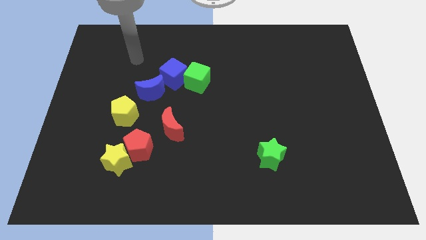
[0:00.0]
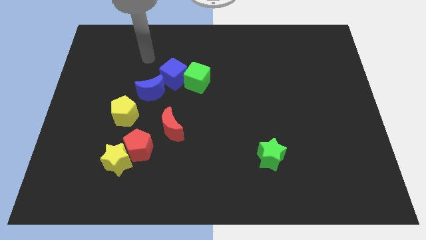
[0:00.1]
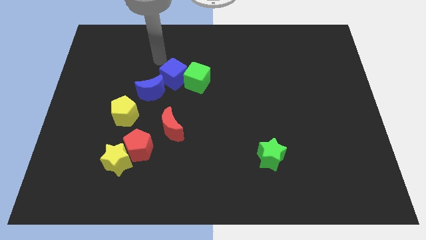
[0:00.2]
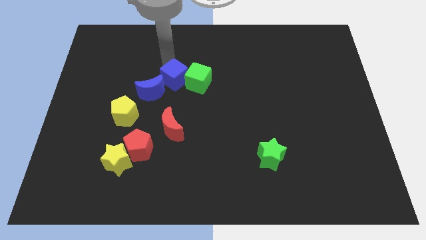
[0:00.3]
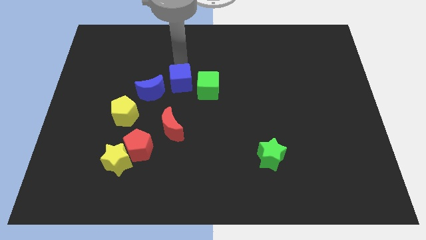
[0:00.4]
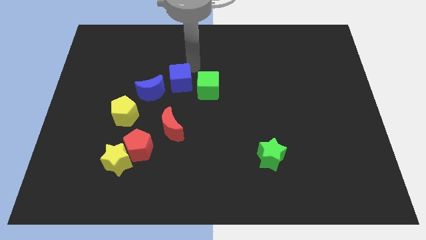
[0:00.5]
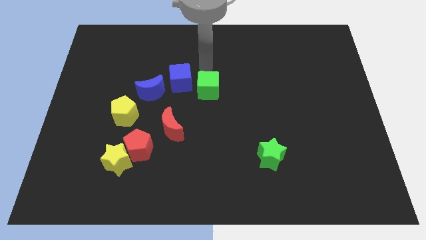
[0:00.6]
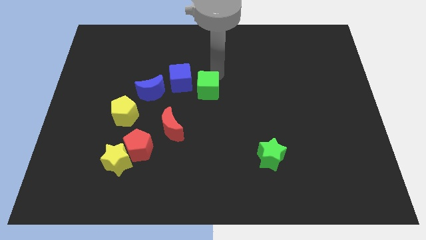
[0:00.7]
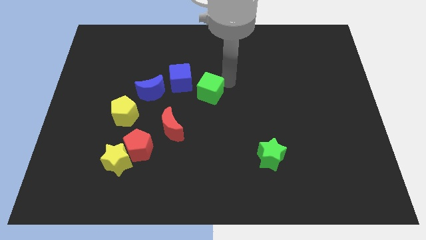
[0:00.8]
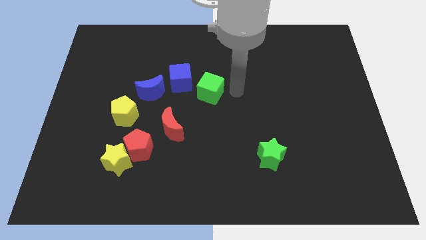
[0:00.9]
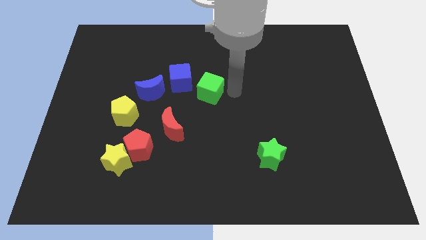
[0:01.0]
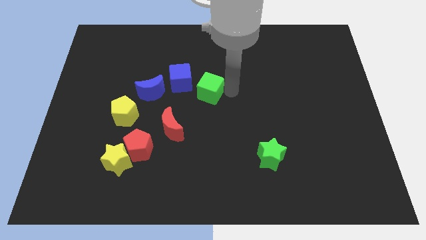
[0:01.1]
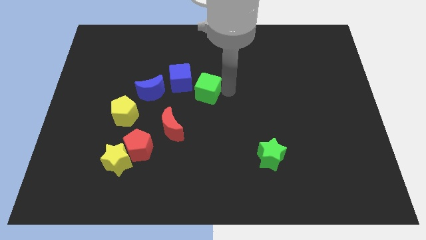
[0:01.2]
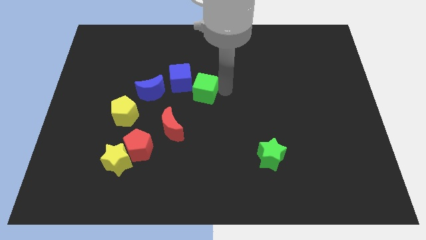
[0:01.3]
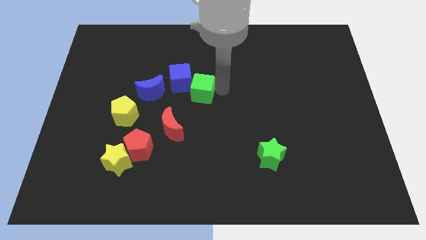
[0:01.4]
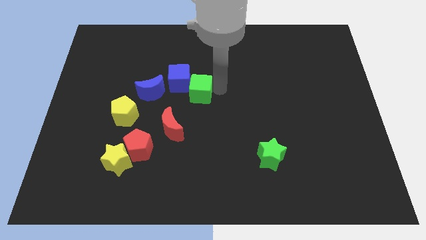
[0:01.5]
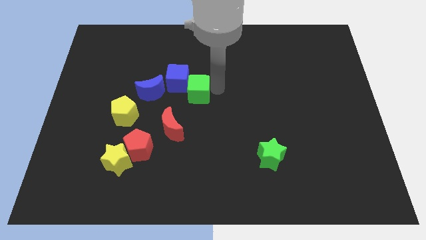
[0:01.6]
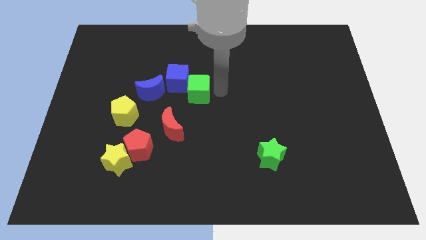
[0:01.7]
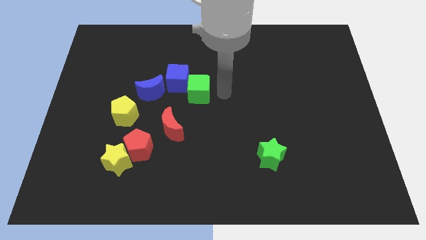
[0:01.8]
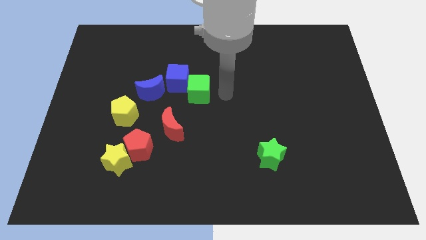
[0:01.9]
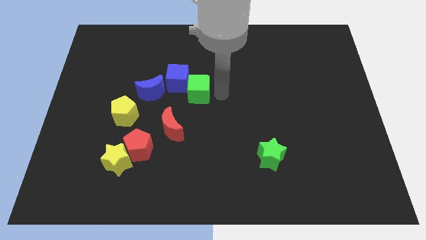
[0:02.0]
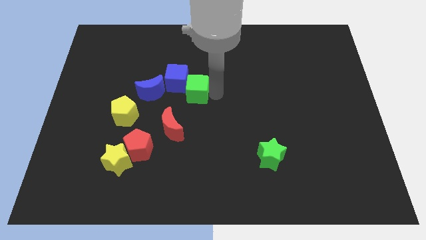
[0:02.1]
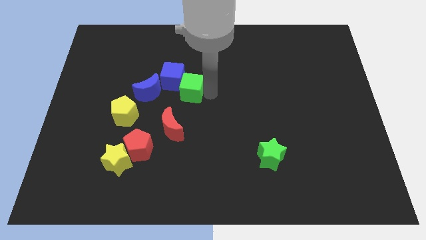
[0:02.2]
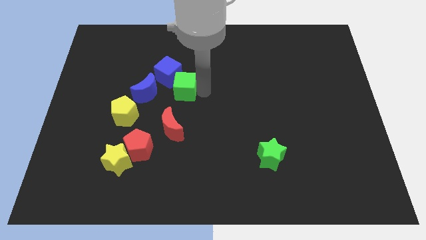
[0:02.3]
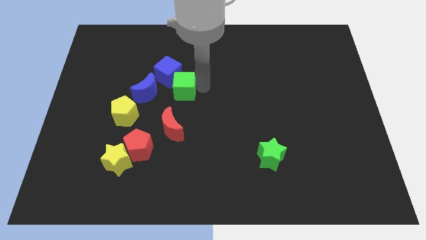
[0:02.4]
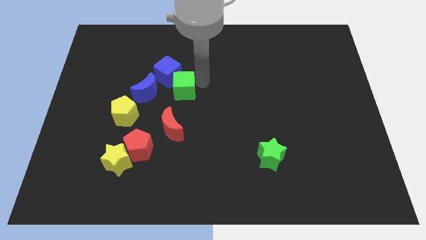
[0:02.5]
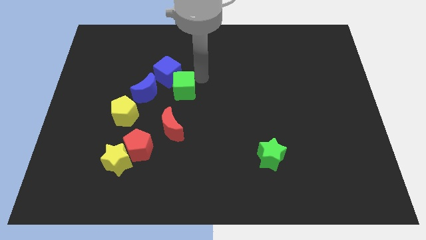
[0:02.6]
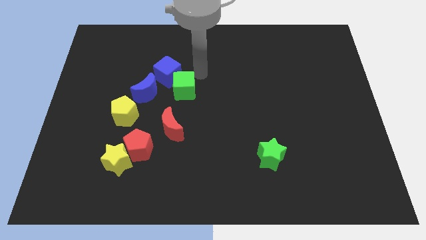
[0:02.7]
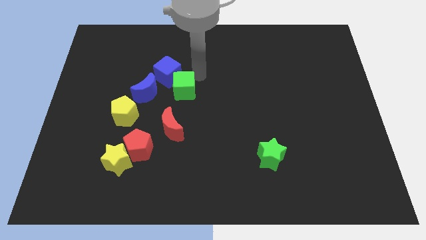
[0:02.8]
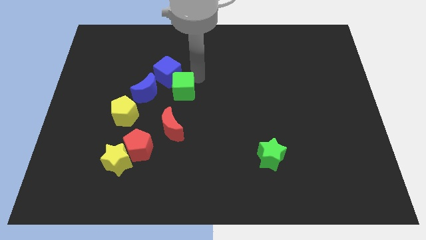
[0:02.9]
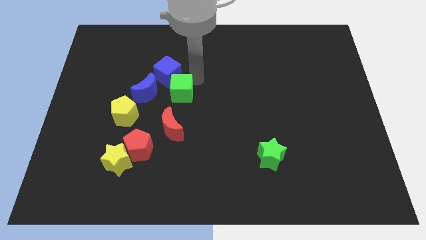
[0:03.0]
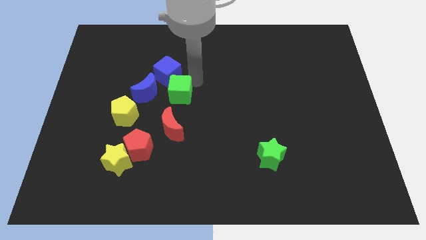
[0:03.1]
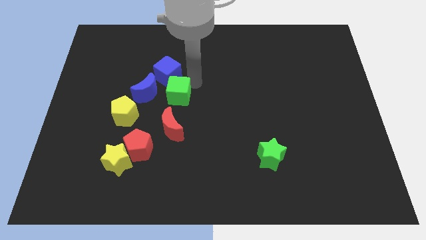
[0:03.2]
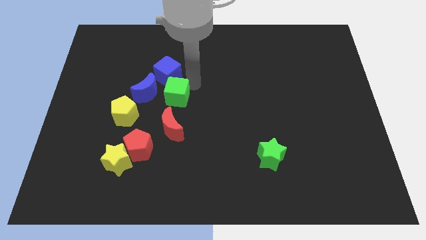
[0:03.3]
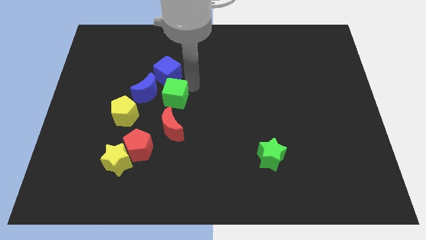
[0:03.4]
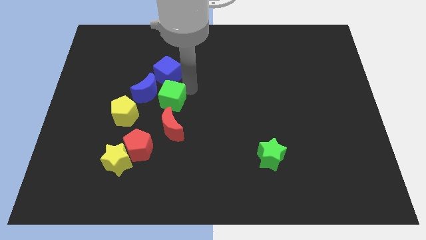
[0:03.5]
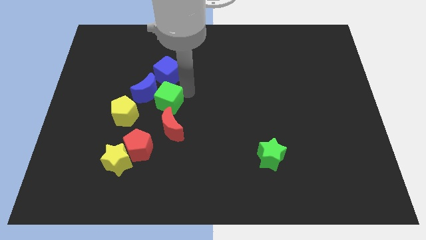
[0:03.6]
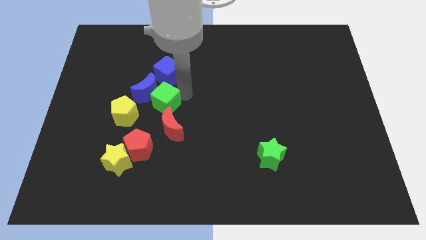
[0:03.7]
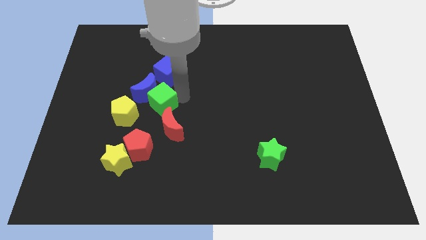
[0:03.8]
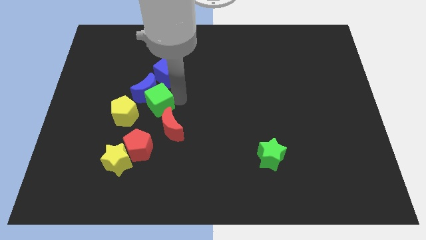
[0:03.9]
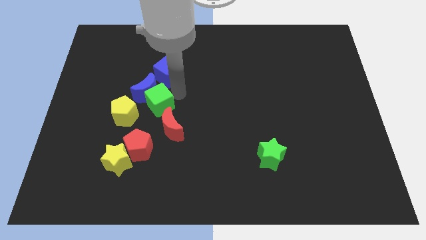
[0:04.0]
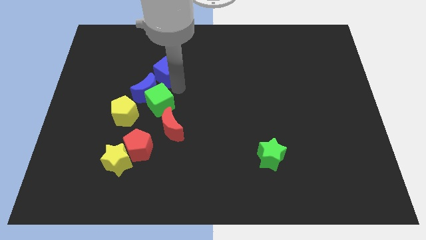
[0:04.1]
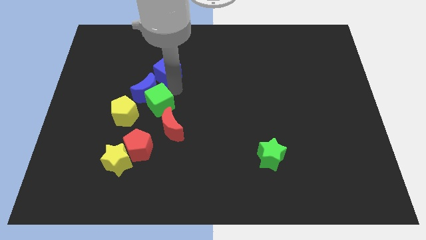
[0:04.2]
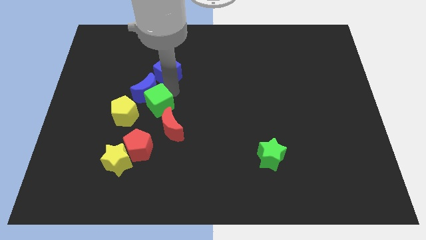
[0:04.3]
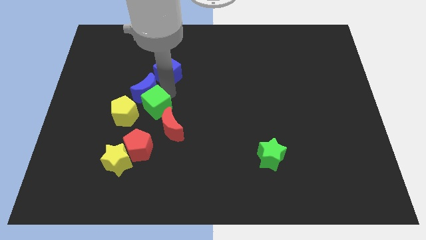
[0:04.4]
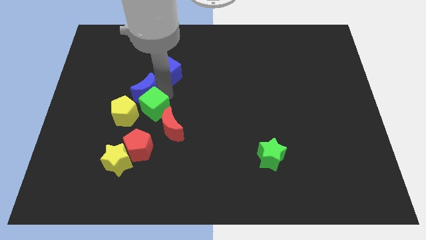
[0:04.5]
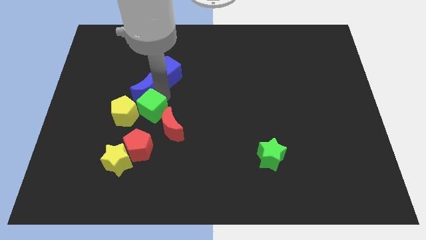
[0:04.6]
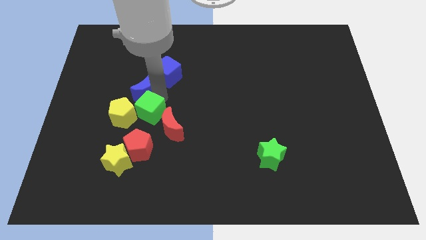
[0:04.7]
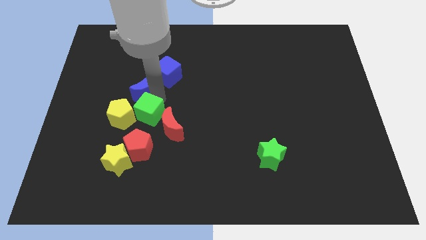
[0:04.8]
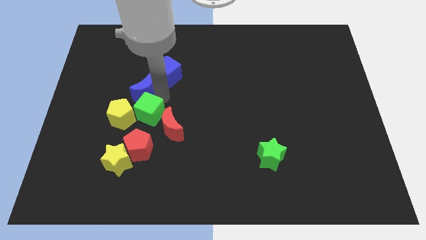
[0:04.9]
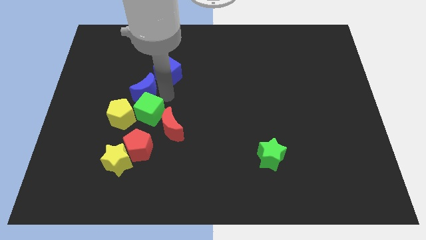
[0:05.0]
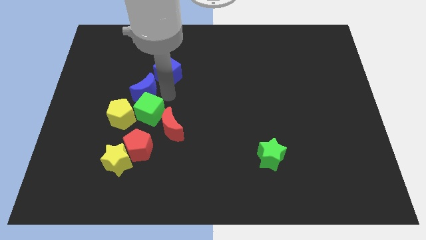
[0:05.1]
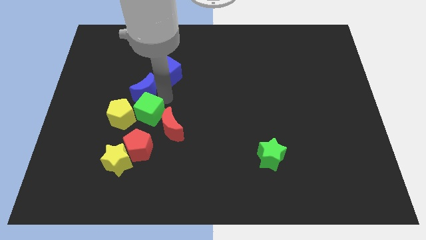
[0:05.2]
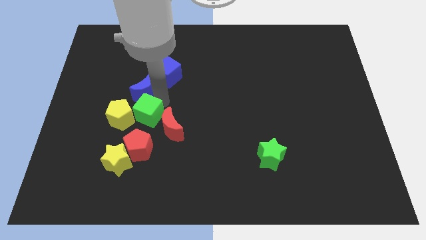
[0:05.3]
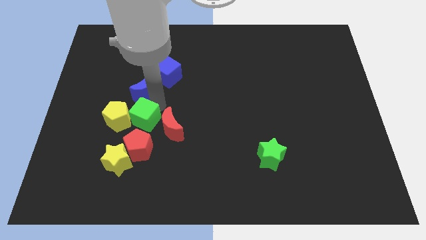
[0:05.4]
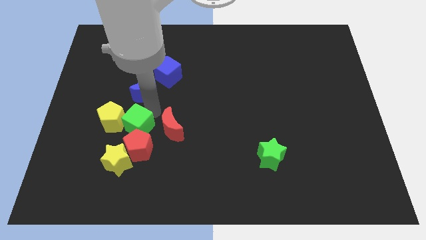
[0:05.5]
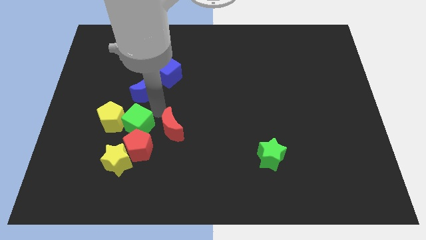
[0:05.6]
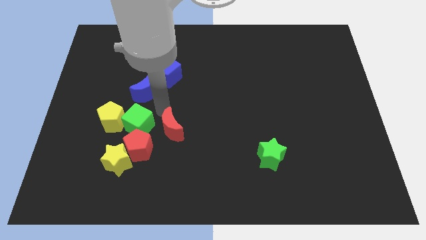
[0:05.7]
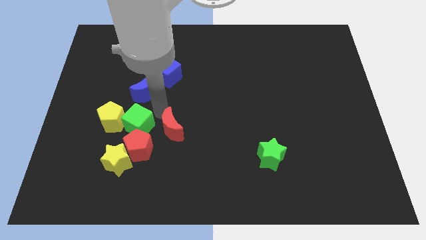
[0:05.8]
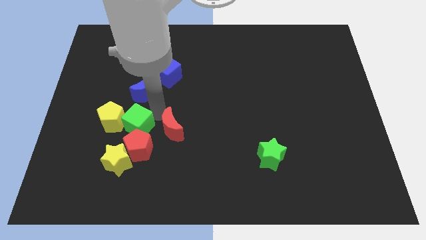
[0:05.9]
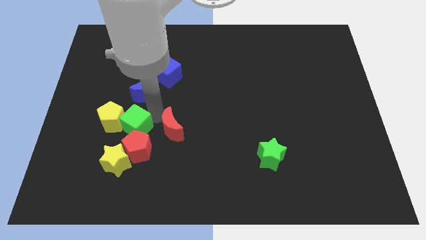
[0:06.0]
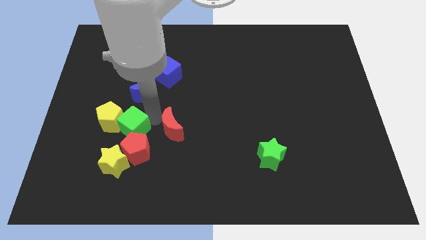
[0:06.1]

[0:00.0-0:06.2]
move the green cube down and then to the left

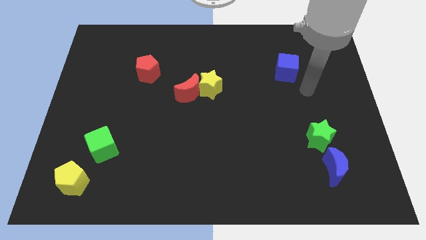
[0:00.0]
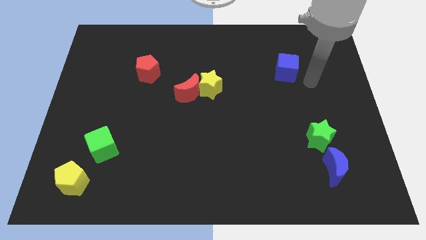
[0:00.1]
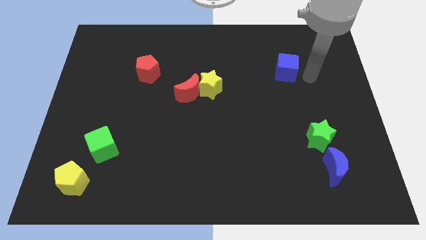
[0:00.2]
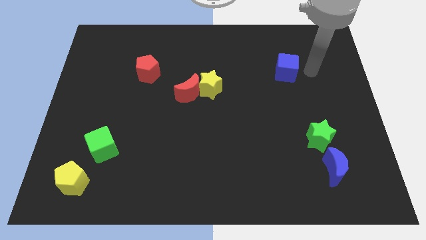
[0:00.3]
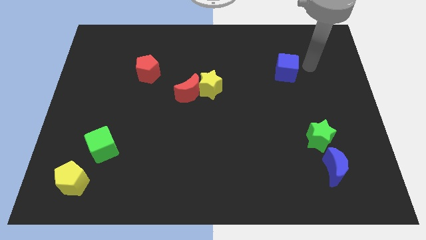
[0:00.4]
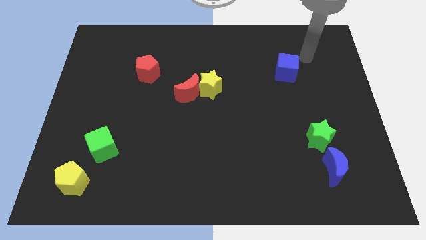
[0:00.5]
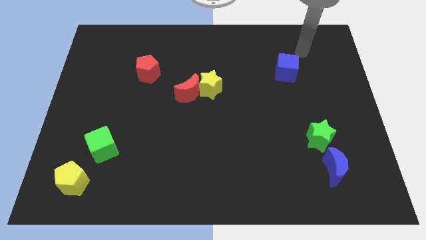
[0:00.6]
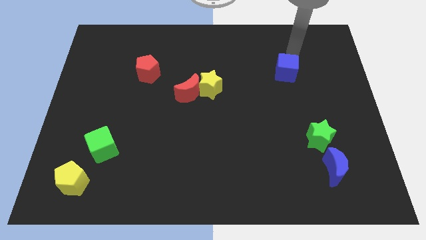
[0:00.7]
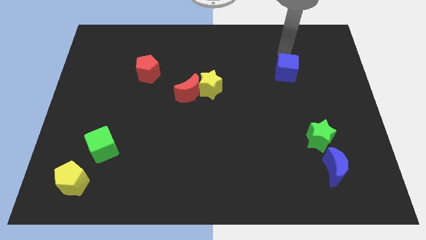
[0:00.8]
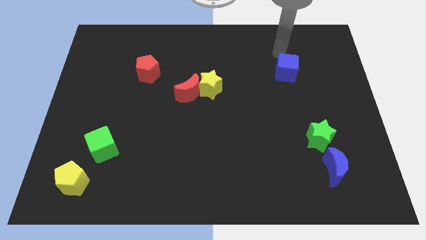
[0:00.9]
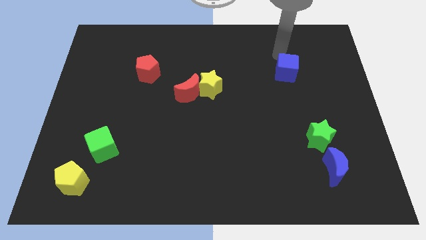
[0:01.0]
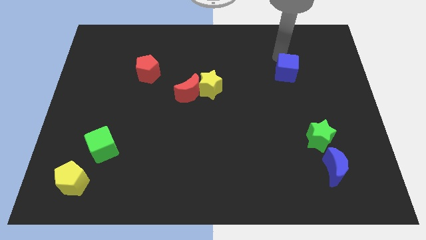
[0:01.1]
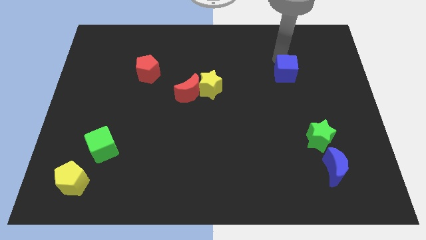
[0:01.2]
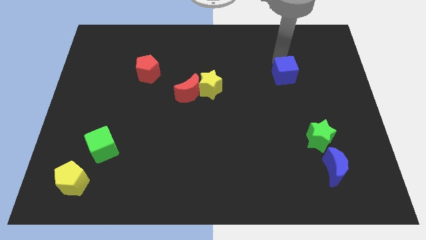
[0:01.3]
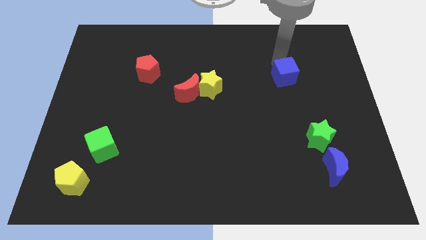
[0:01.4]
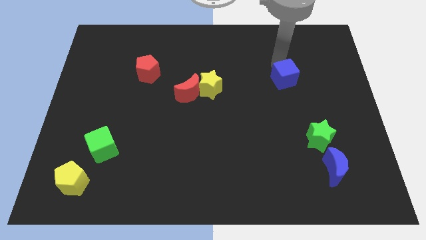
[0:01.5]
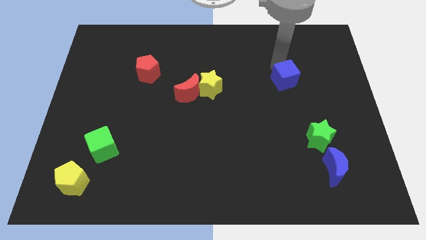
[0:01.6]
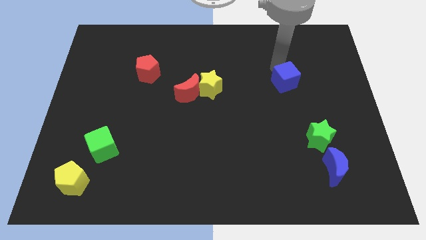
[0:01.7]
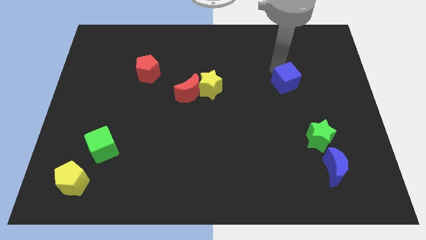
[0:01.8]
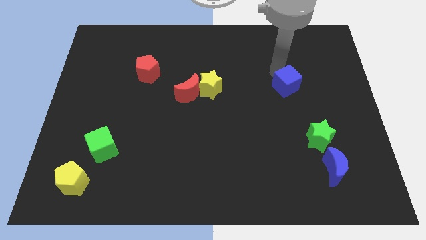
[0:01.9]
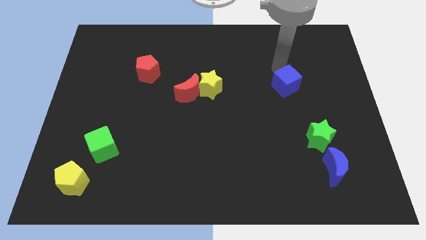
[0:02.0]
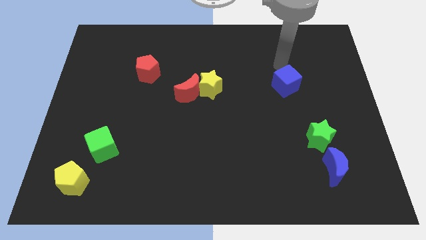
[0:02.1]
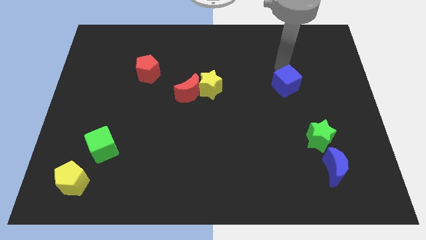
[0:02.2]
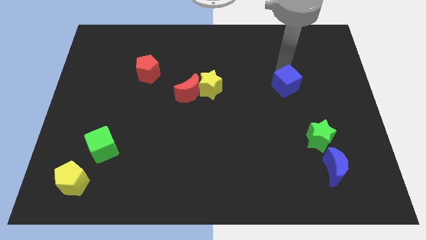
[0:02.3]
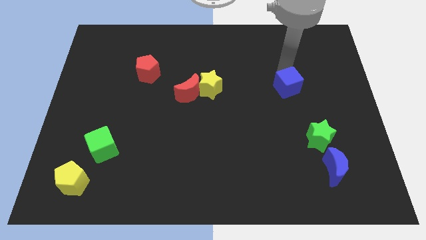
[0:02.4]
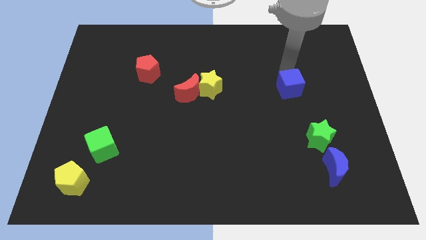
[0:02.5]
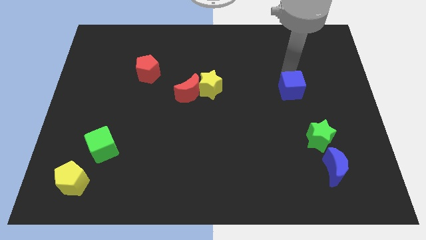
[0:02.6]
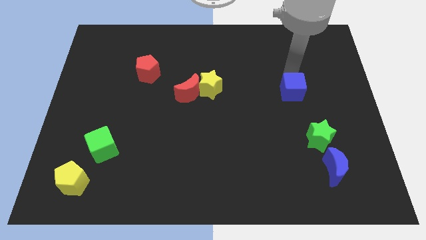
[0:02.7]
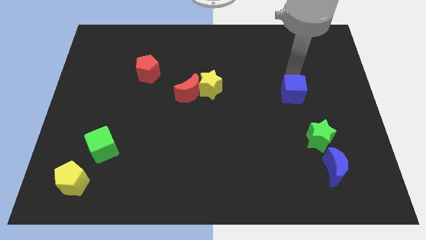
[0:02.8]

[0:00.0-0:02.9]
push the blue cube a little bit downwards
